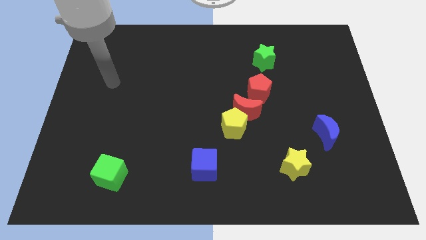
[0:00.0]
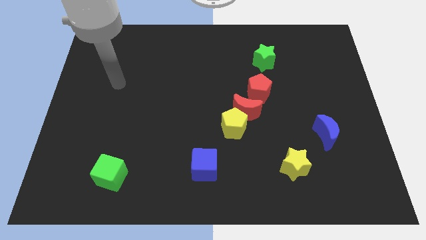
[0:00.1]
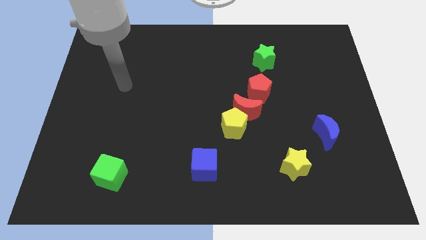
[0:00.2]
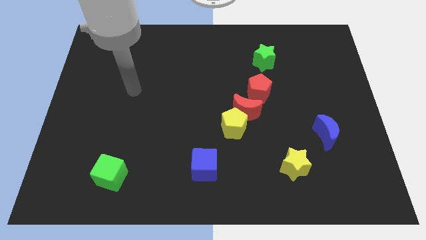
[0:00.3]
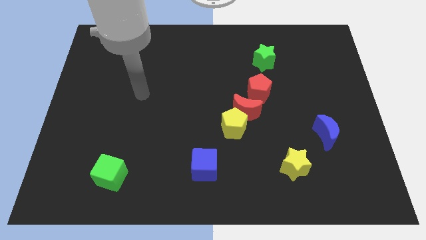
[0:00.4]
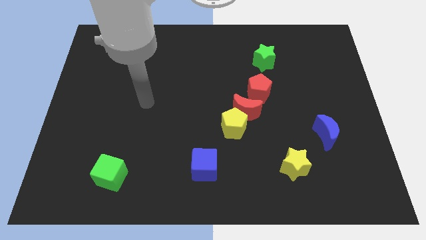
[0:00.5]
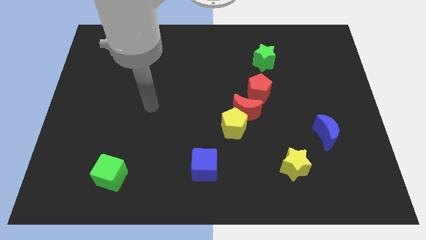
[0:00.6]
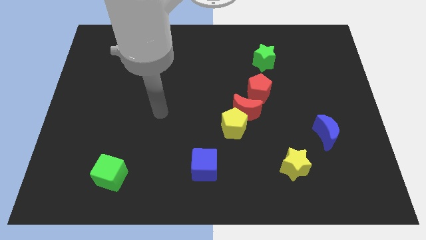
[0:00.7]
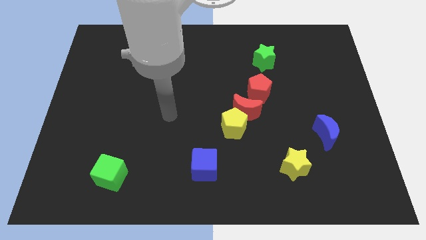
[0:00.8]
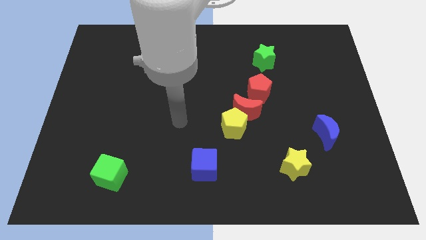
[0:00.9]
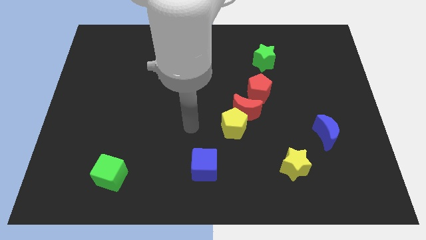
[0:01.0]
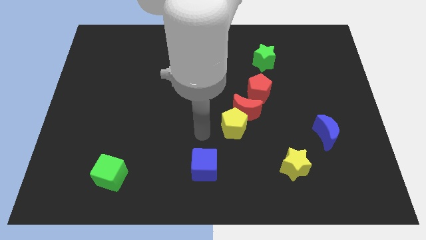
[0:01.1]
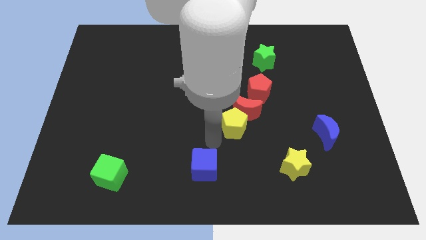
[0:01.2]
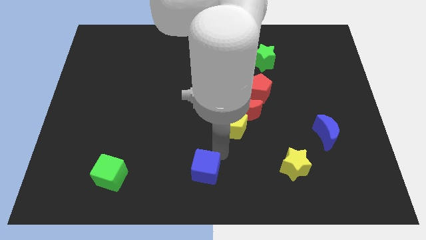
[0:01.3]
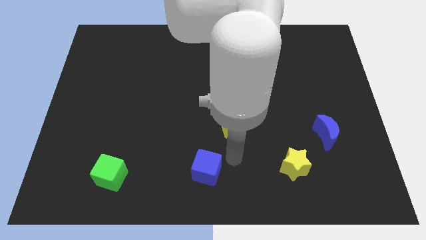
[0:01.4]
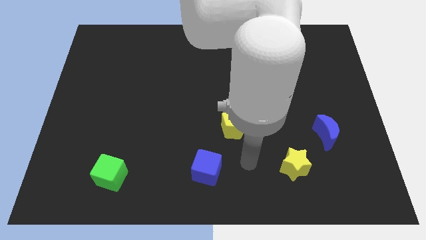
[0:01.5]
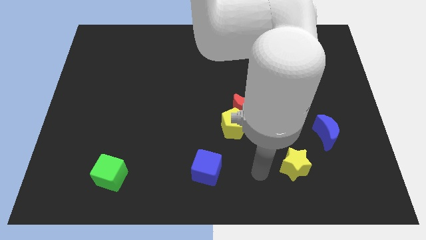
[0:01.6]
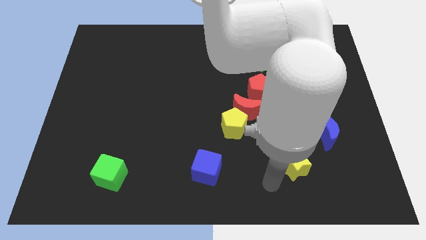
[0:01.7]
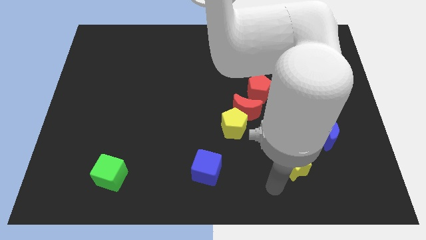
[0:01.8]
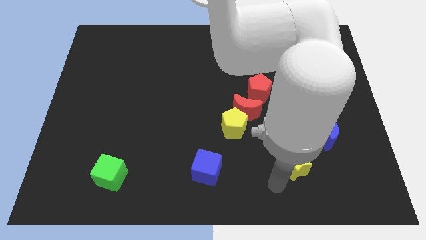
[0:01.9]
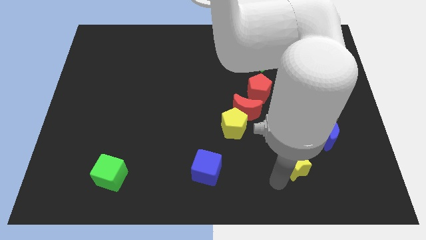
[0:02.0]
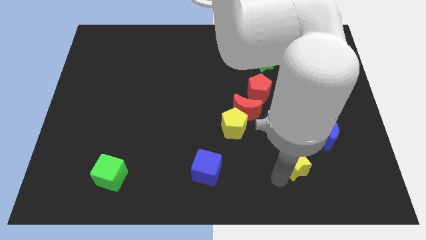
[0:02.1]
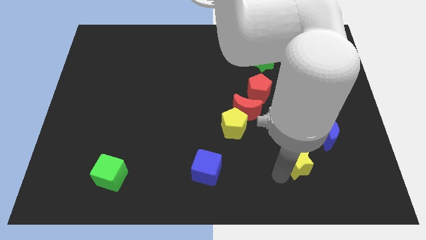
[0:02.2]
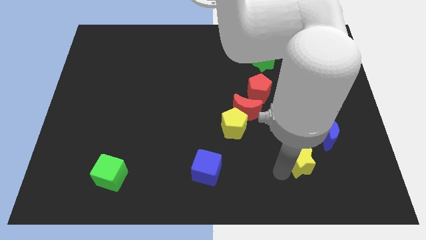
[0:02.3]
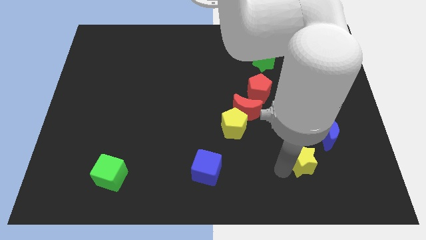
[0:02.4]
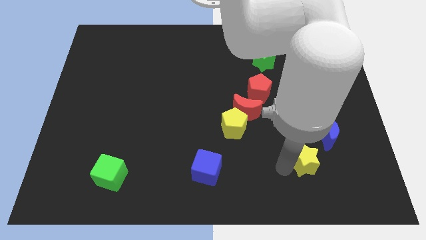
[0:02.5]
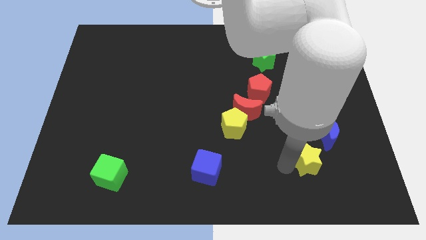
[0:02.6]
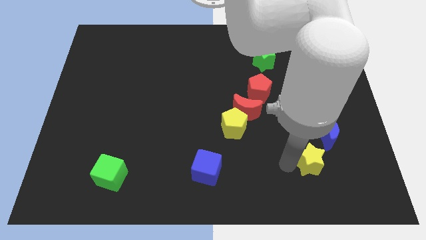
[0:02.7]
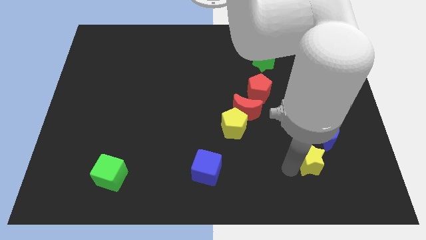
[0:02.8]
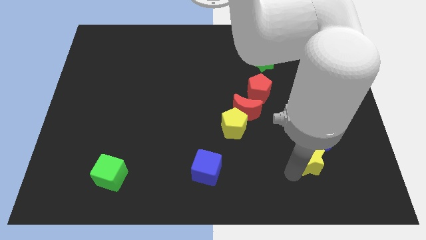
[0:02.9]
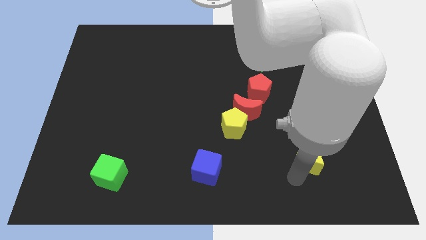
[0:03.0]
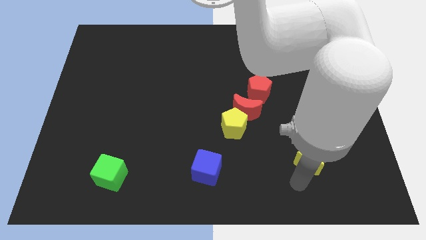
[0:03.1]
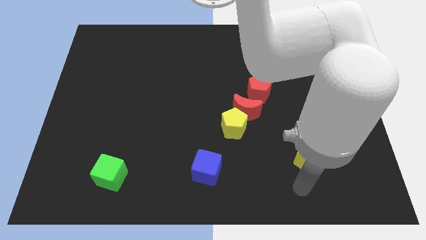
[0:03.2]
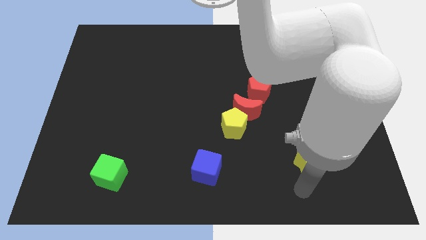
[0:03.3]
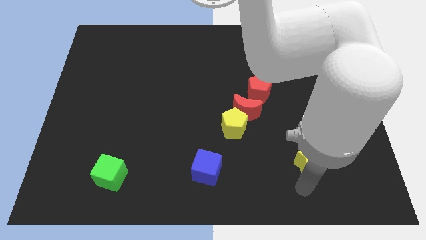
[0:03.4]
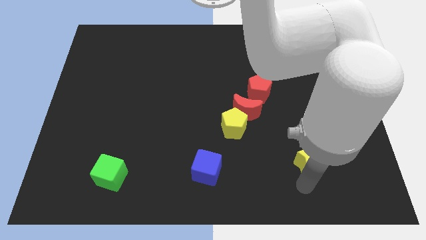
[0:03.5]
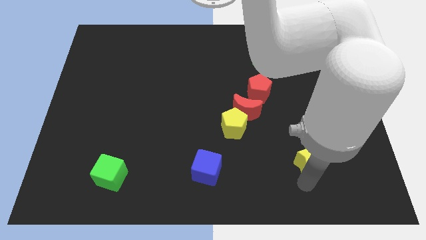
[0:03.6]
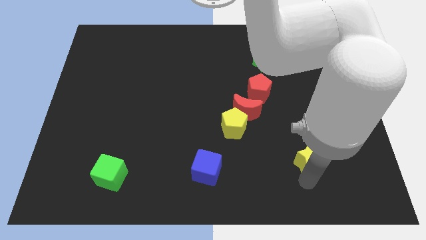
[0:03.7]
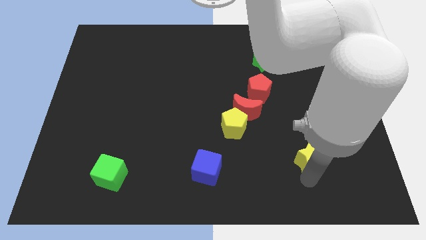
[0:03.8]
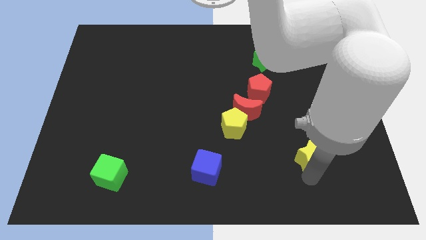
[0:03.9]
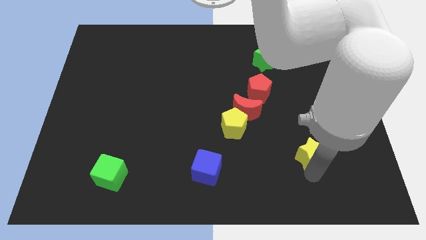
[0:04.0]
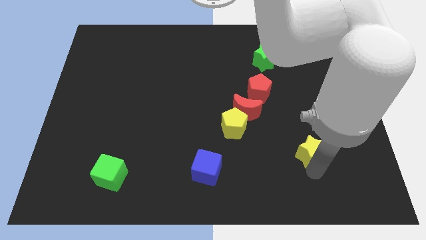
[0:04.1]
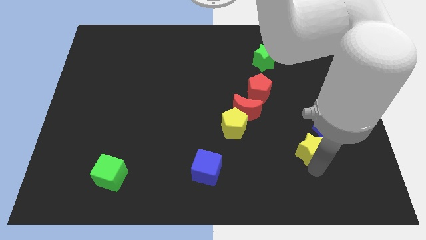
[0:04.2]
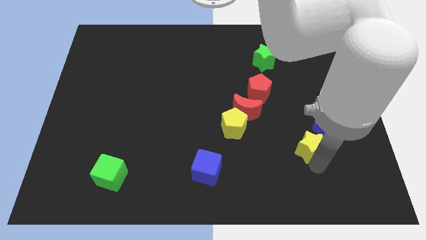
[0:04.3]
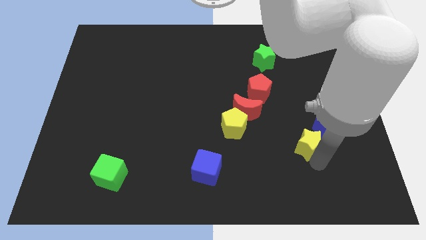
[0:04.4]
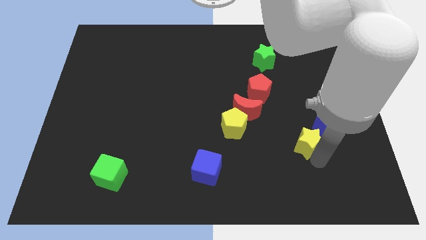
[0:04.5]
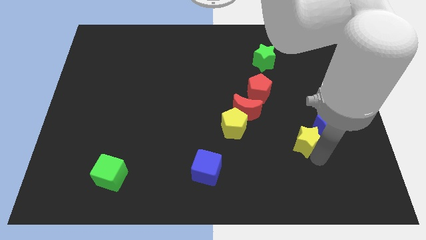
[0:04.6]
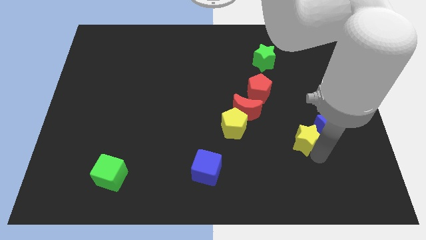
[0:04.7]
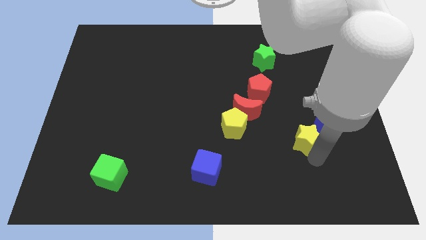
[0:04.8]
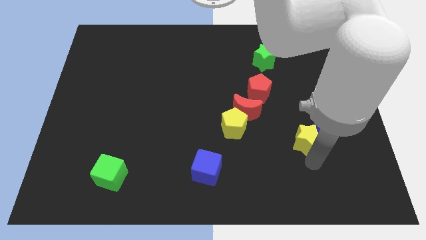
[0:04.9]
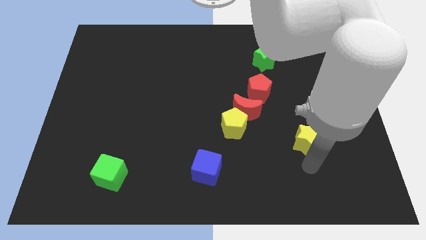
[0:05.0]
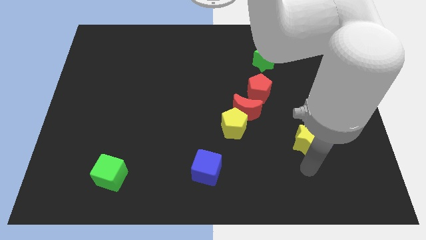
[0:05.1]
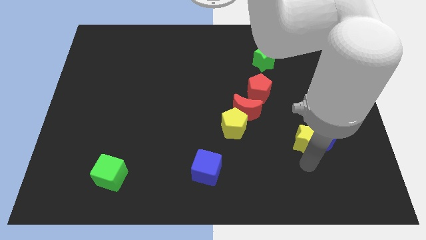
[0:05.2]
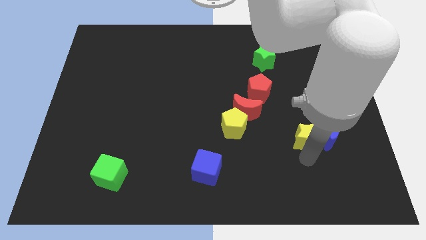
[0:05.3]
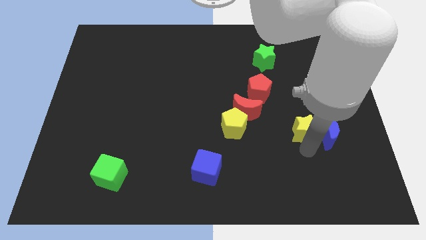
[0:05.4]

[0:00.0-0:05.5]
push the yellow star a little bit upwards

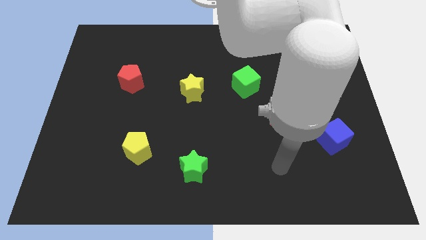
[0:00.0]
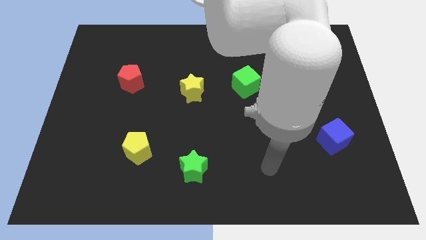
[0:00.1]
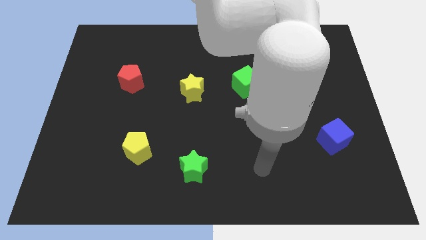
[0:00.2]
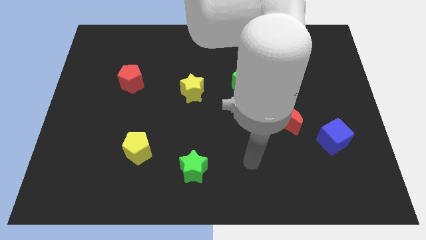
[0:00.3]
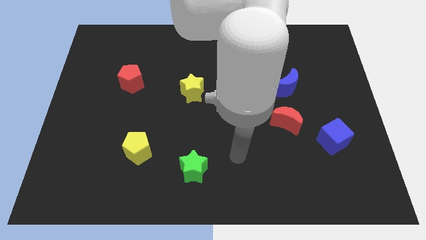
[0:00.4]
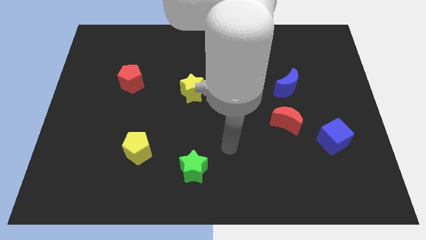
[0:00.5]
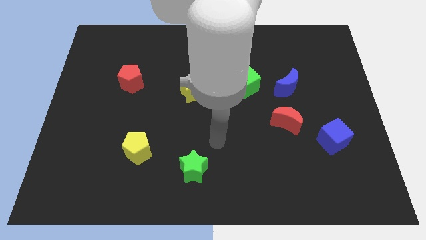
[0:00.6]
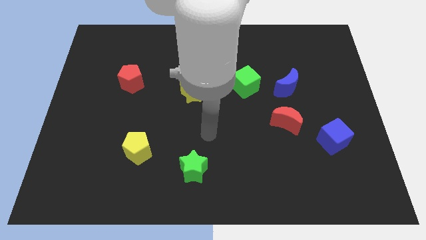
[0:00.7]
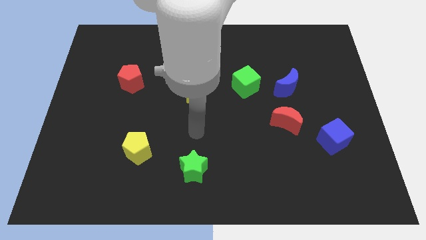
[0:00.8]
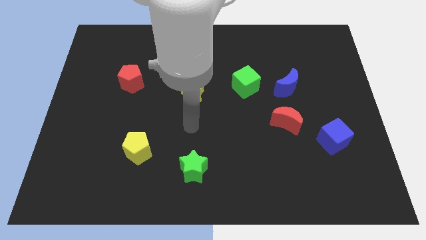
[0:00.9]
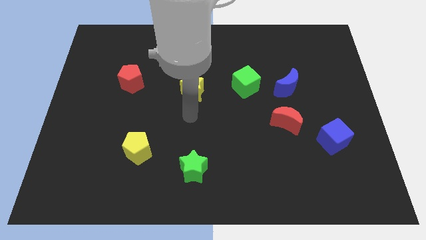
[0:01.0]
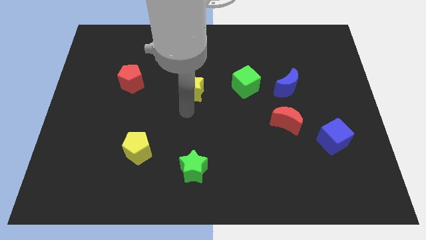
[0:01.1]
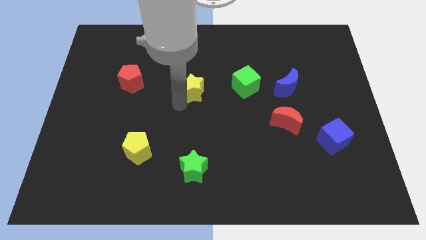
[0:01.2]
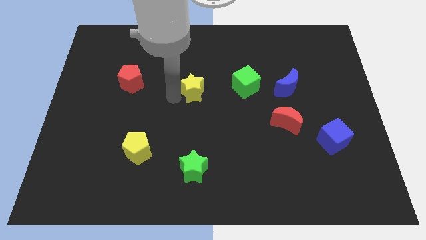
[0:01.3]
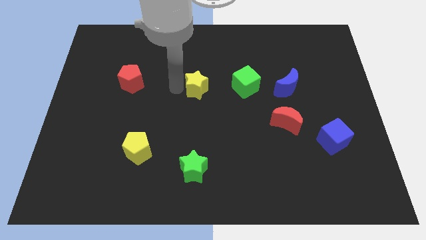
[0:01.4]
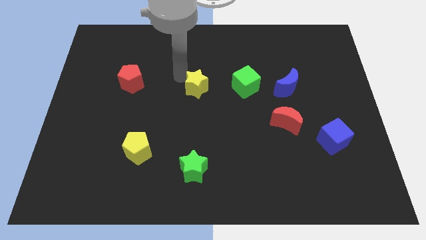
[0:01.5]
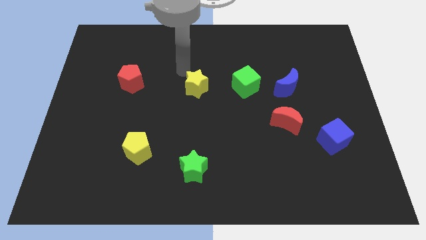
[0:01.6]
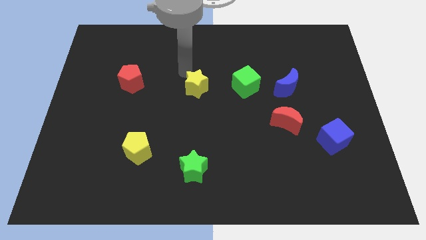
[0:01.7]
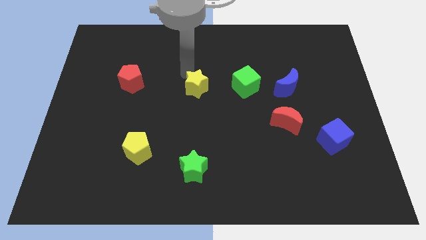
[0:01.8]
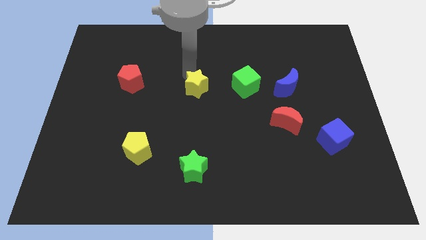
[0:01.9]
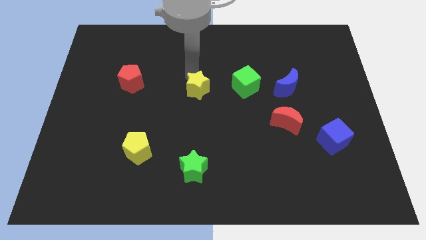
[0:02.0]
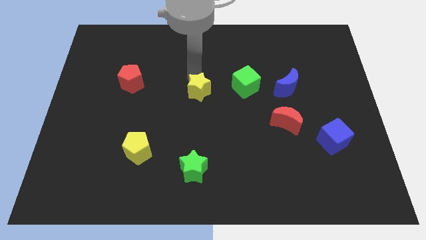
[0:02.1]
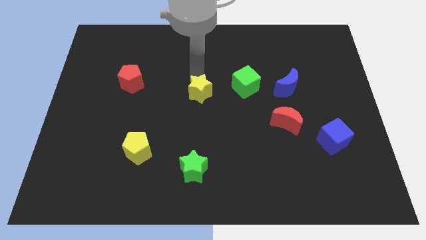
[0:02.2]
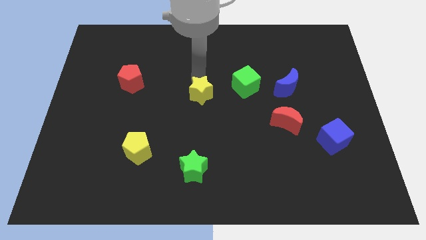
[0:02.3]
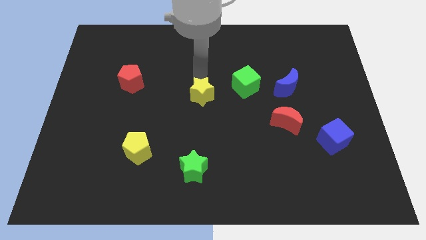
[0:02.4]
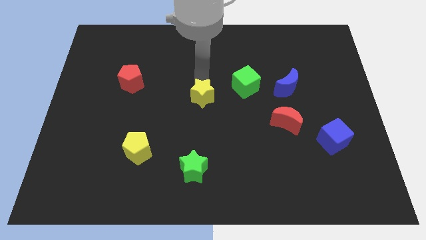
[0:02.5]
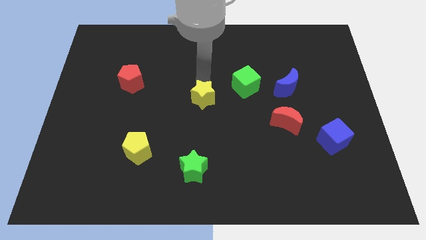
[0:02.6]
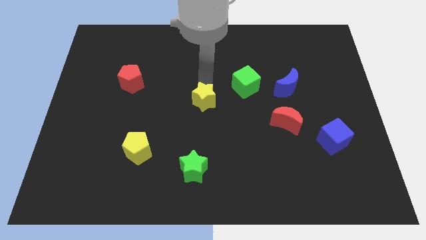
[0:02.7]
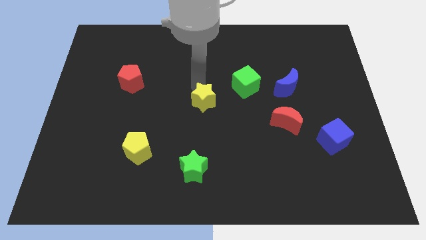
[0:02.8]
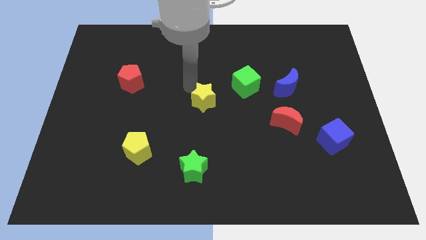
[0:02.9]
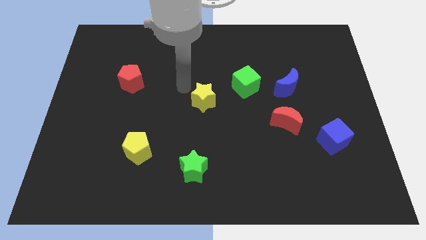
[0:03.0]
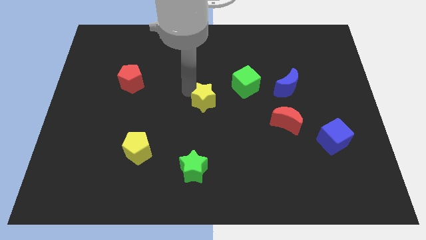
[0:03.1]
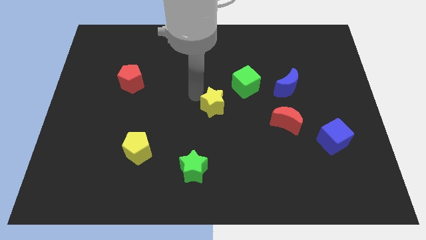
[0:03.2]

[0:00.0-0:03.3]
slightly move the yellow star down and to the right
